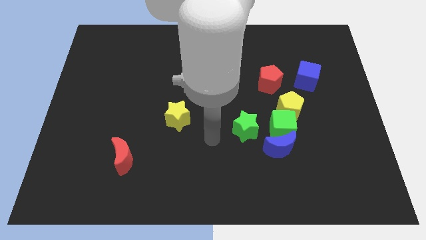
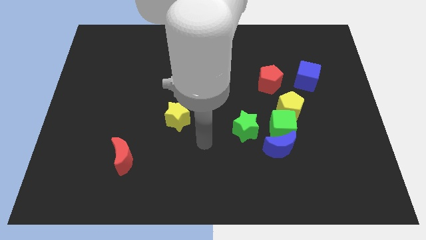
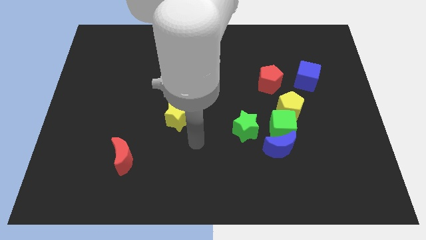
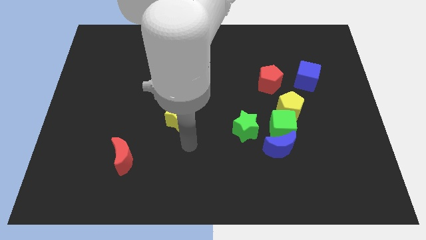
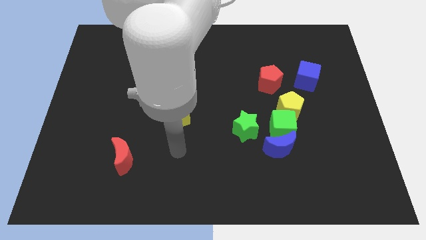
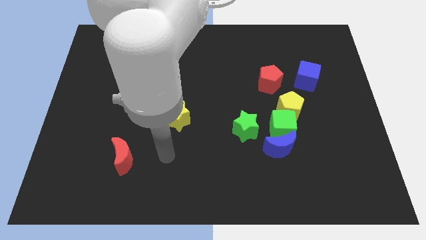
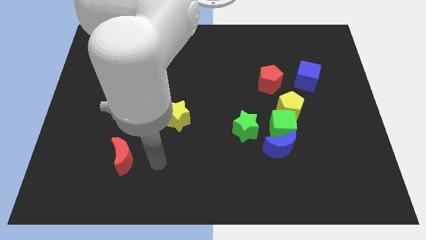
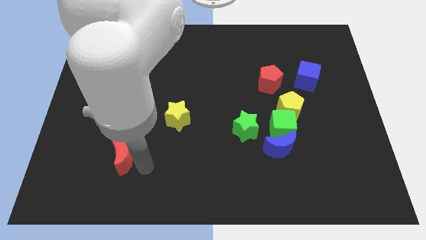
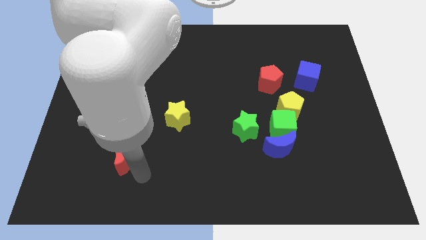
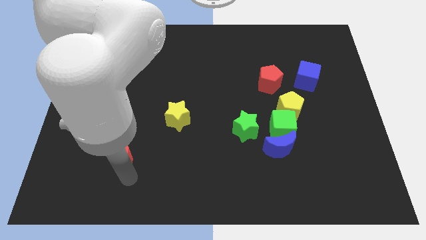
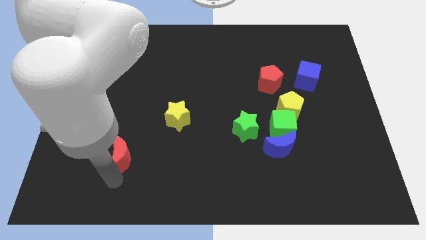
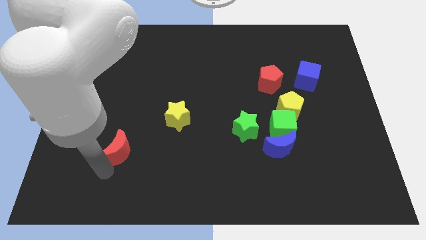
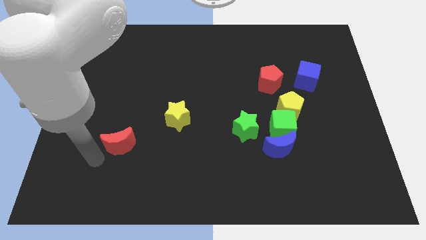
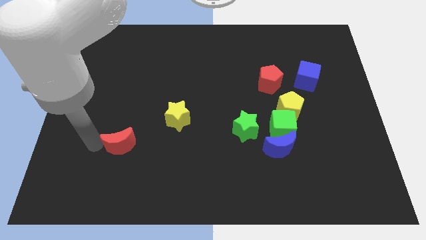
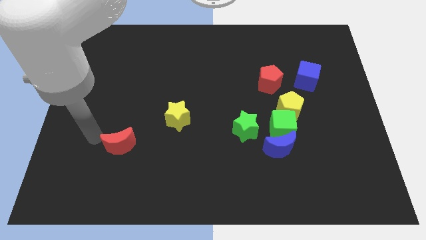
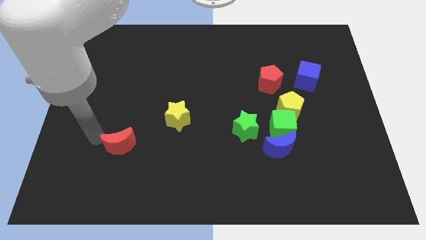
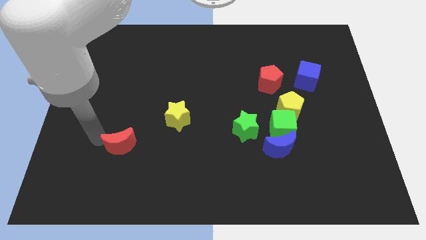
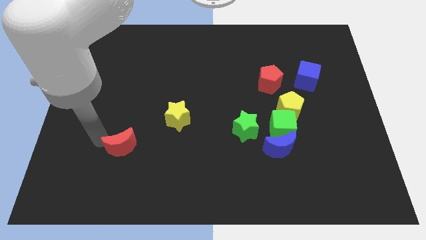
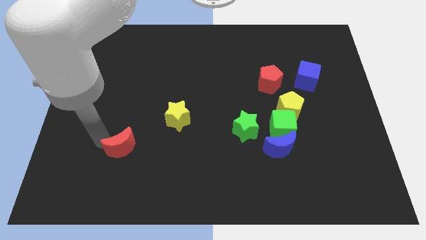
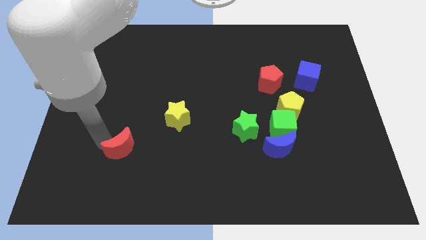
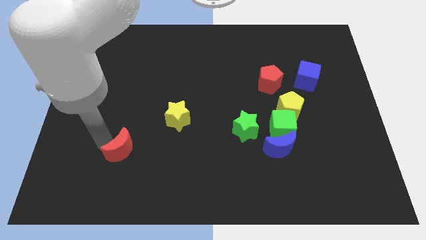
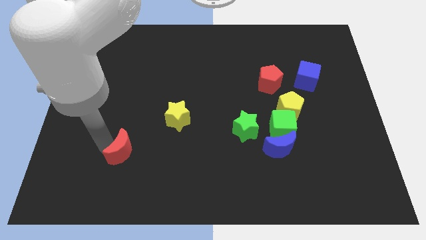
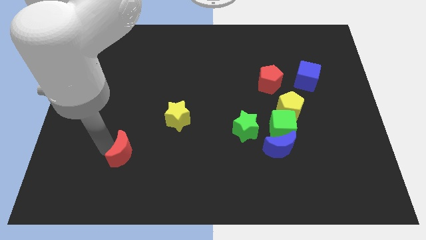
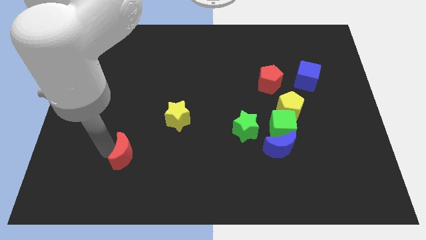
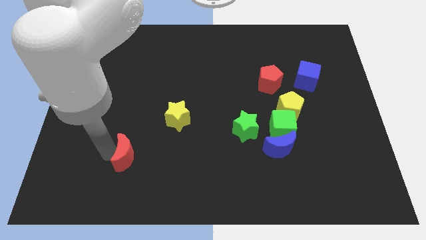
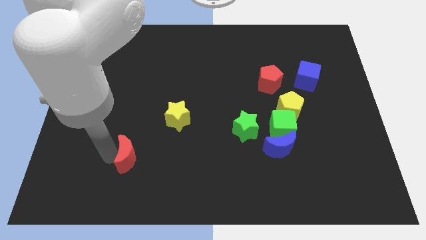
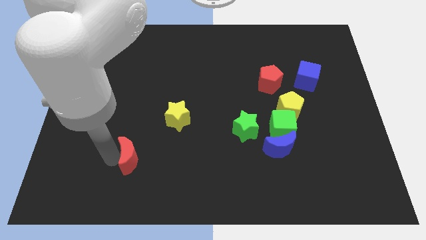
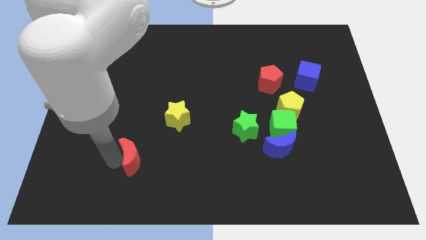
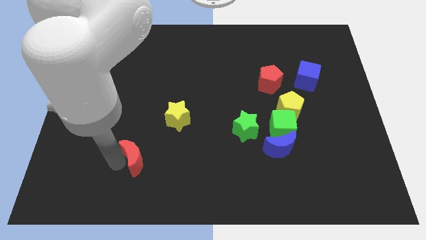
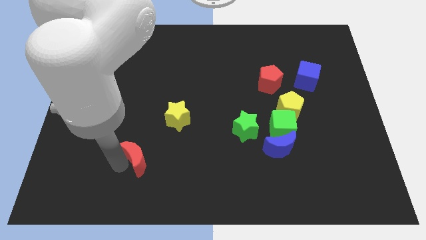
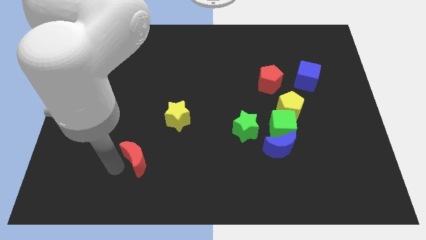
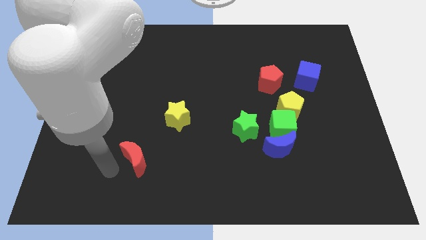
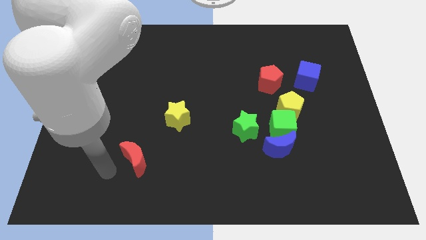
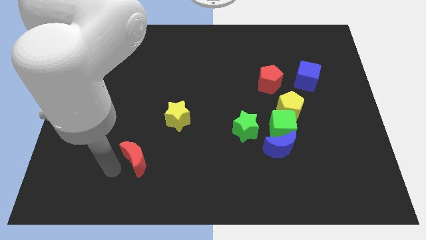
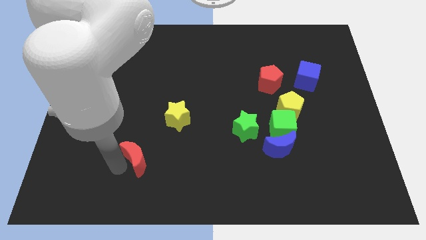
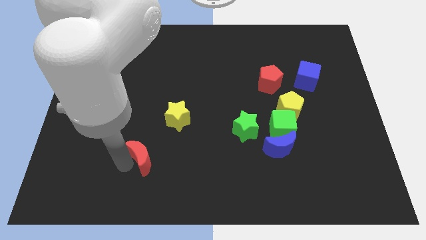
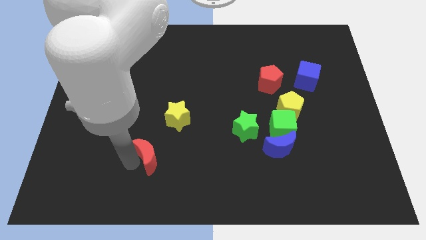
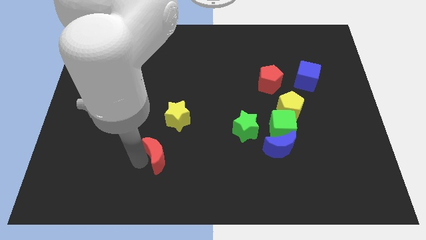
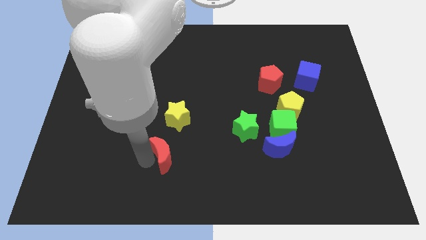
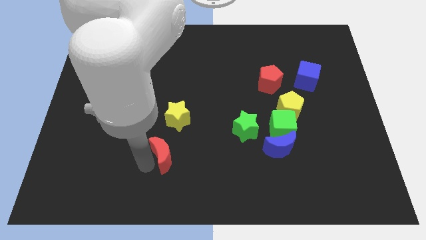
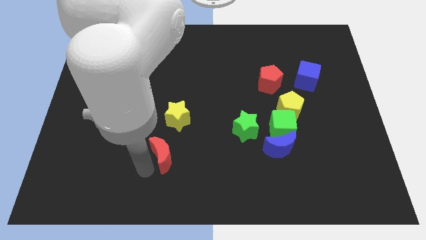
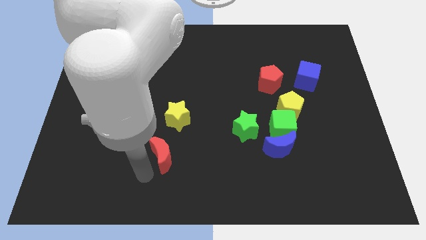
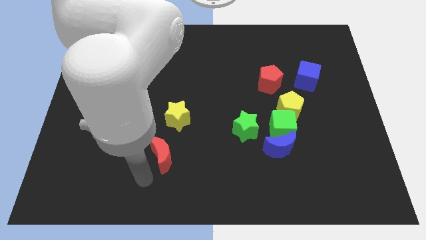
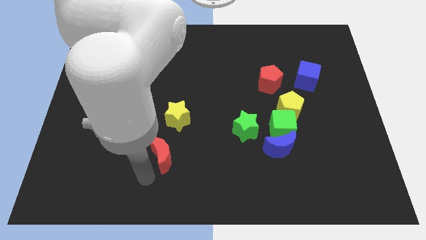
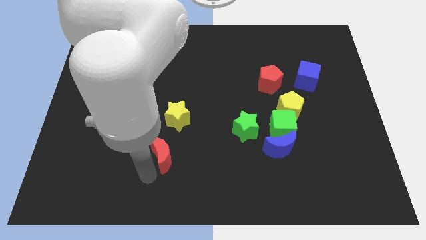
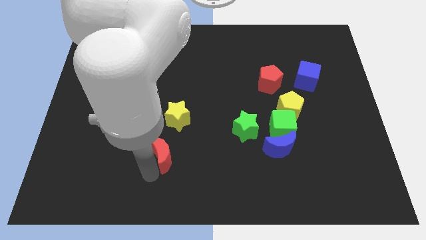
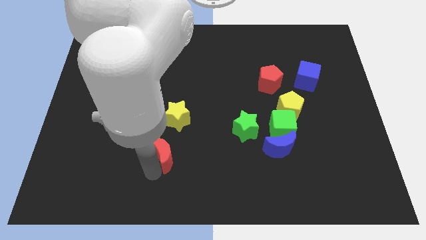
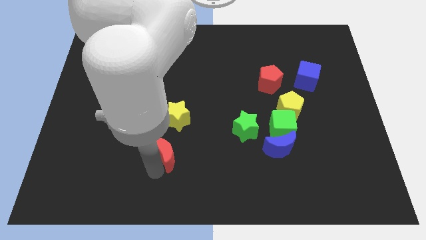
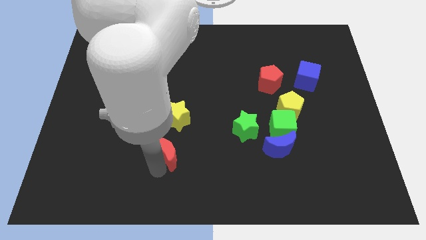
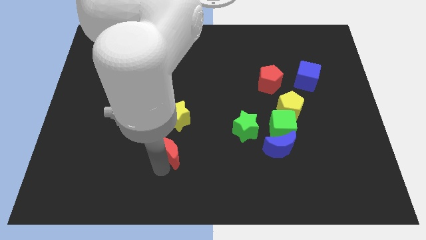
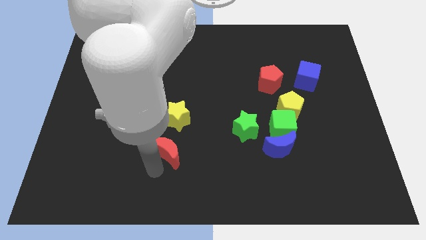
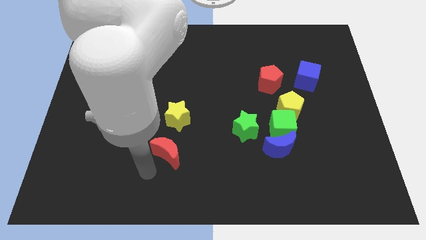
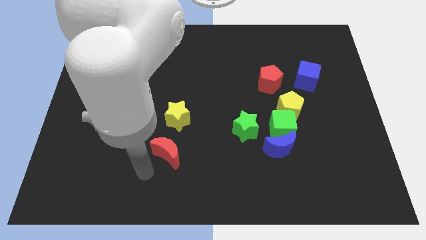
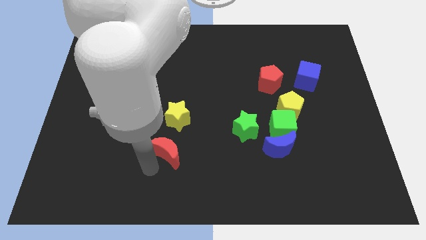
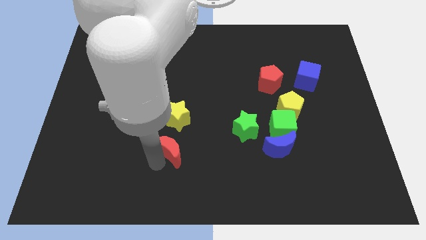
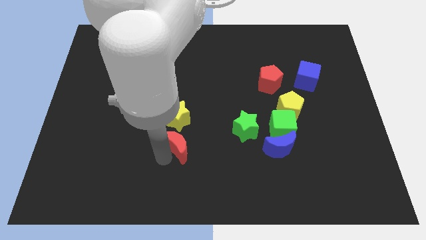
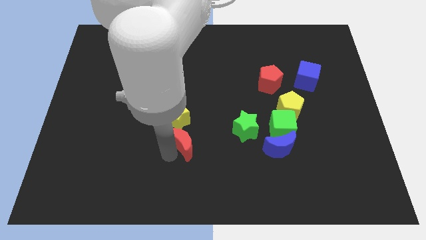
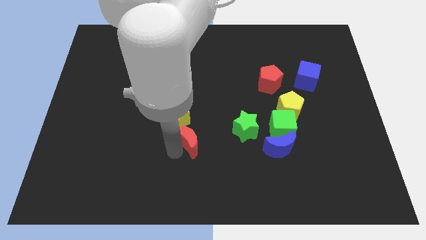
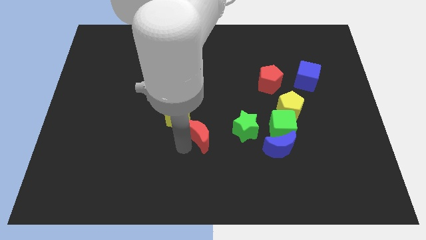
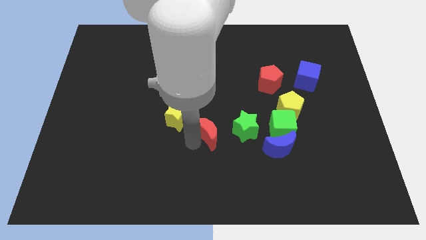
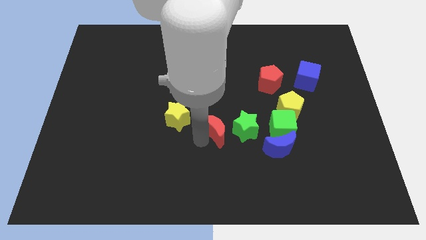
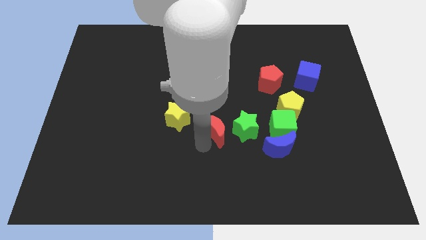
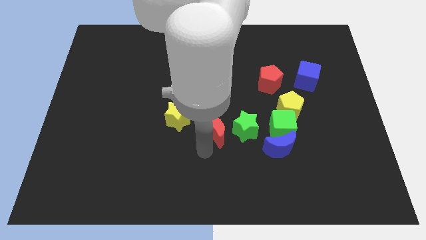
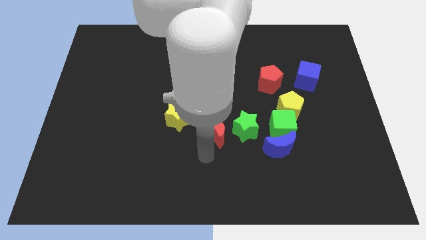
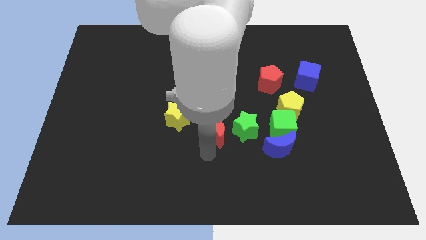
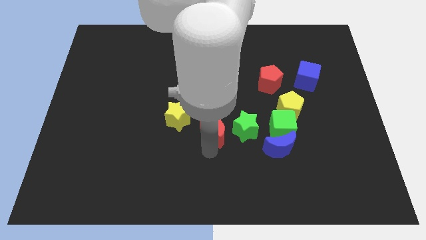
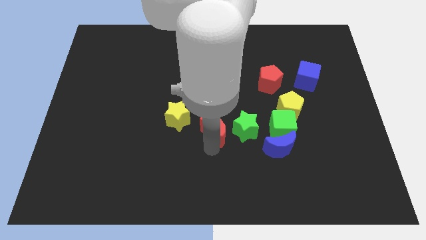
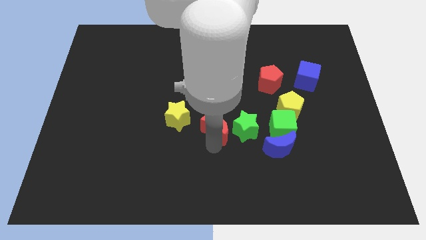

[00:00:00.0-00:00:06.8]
push the red moon to the top left of the green star

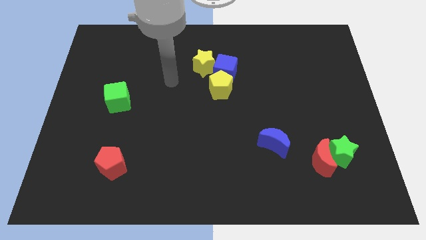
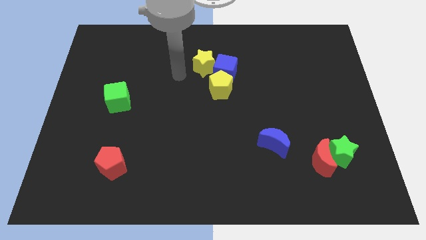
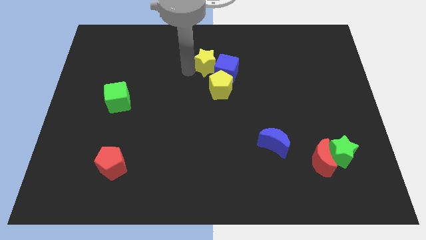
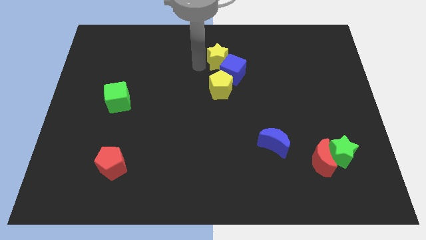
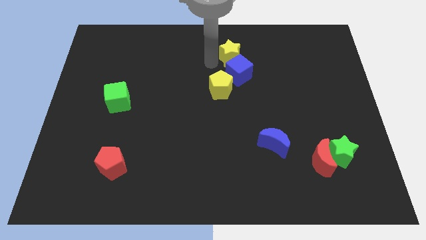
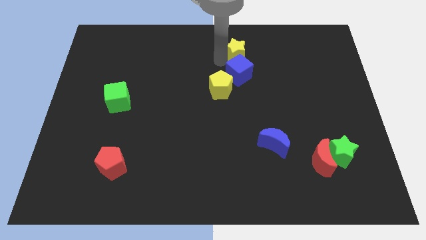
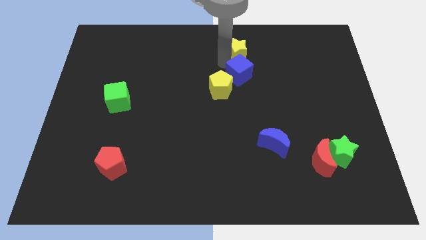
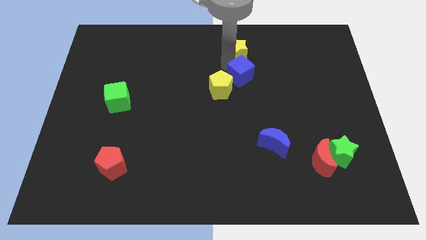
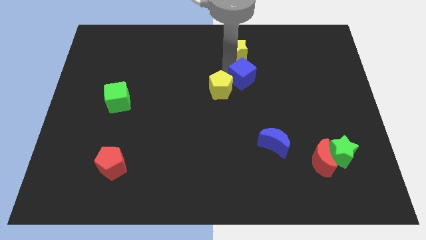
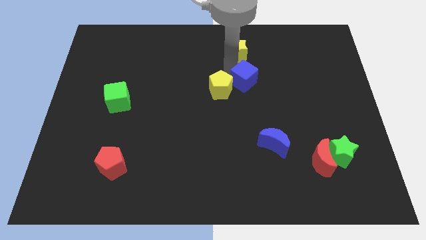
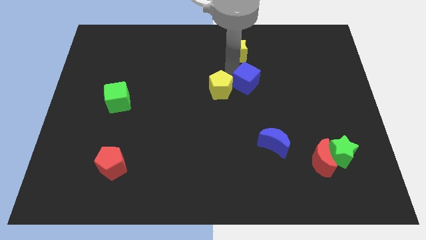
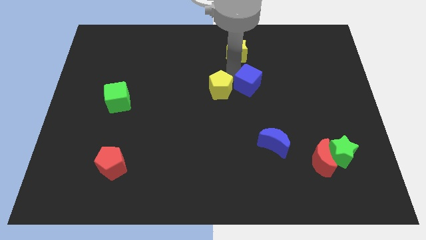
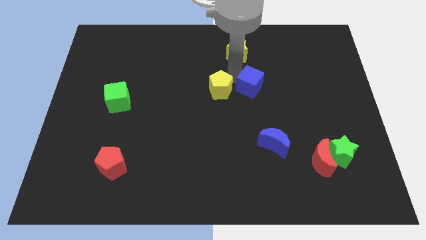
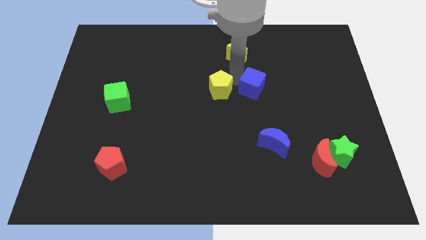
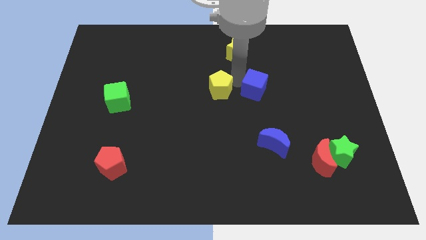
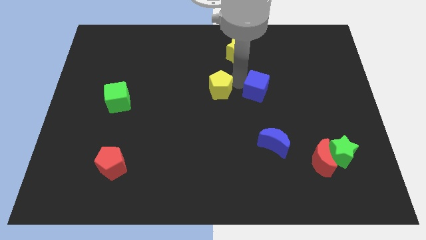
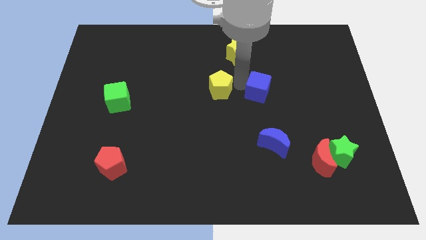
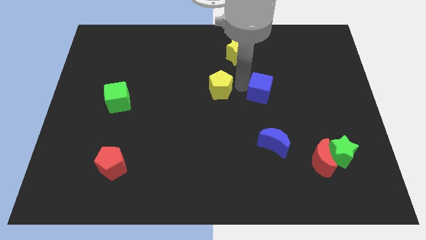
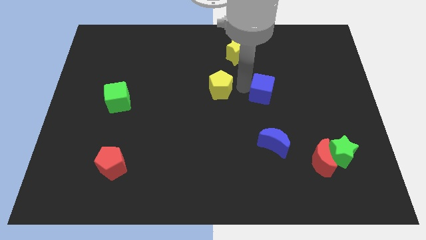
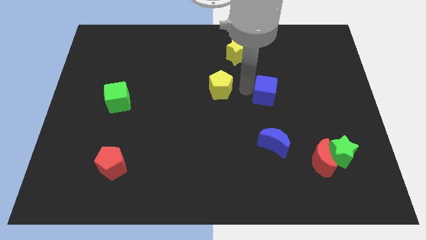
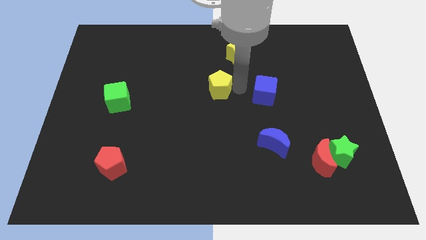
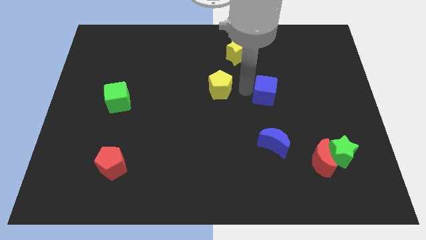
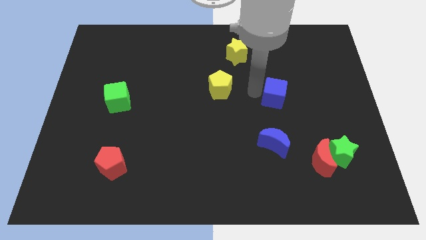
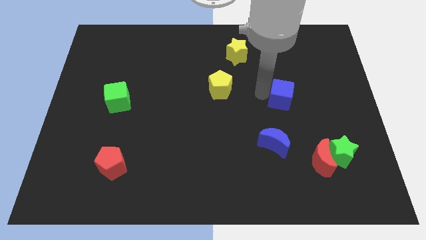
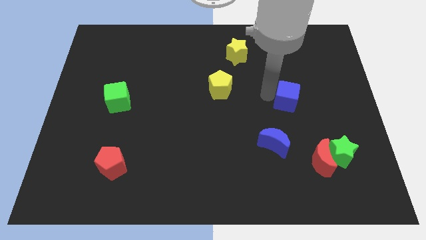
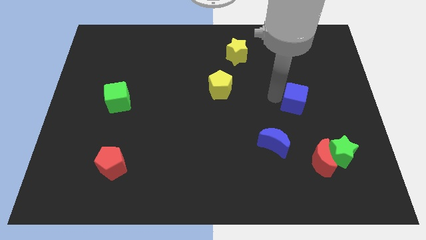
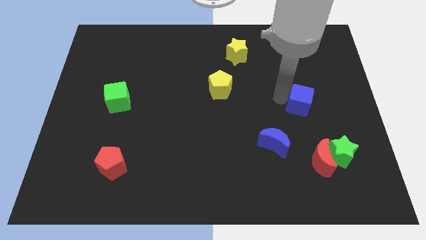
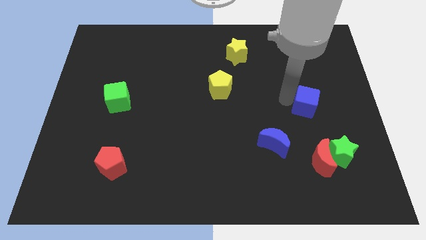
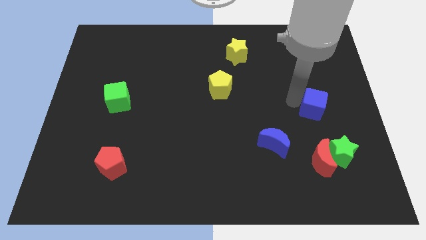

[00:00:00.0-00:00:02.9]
move the blue cube to the top side of the green star
